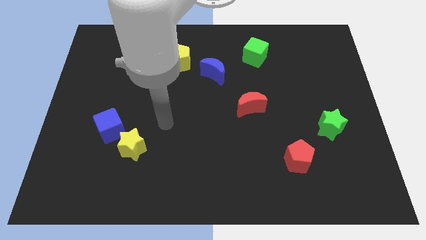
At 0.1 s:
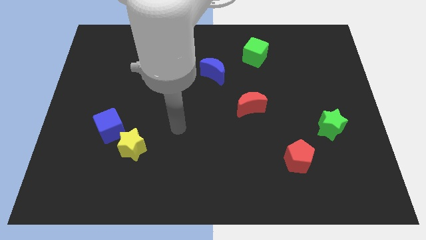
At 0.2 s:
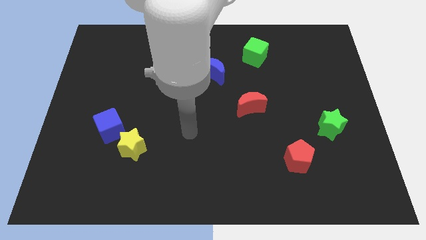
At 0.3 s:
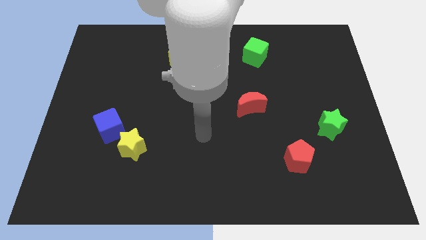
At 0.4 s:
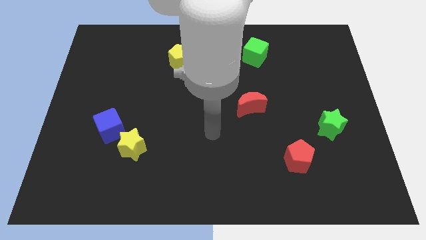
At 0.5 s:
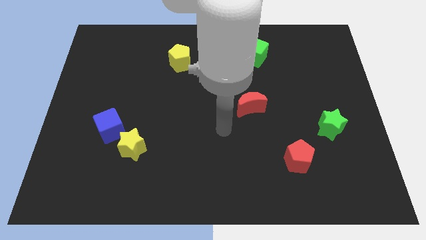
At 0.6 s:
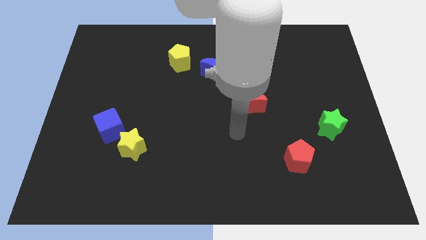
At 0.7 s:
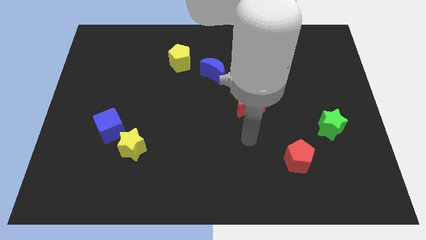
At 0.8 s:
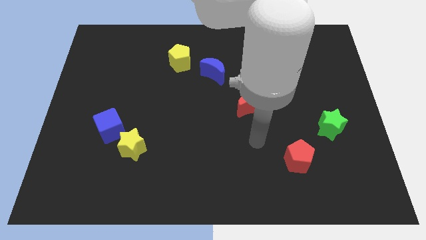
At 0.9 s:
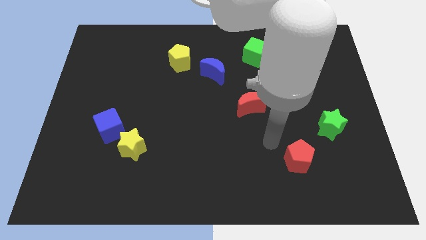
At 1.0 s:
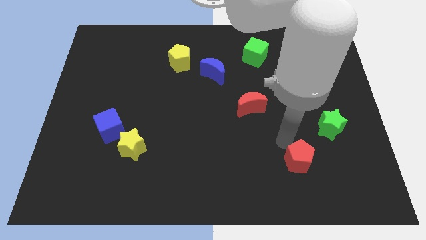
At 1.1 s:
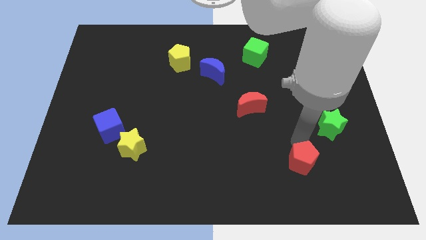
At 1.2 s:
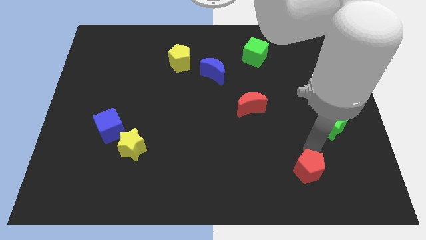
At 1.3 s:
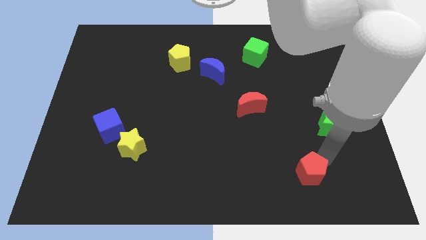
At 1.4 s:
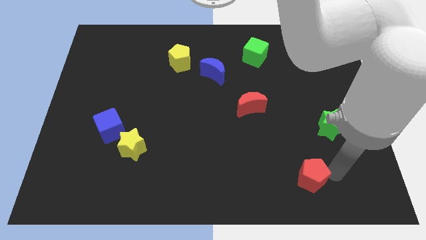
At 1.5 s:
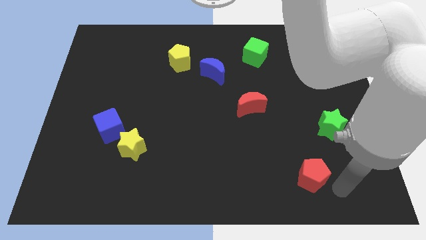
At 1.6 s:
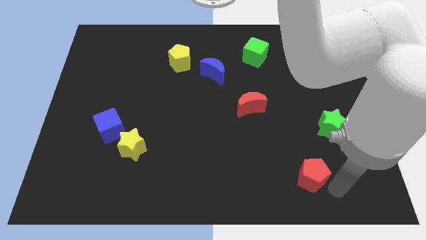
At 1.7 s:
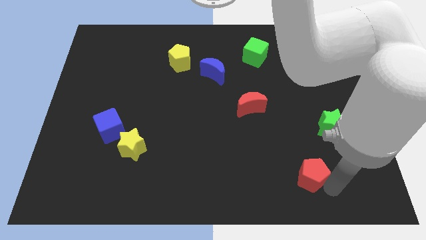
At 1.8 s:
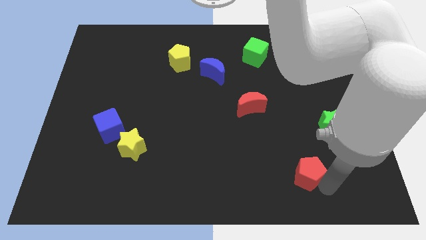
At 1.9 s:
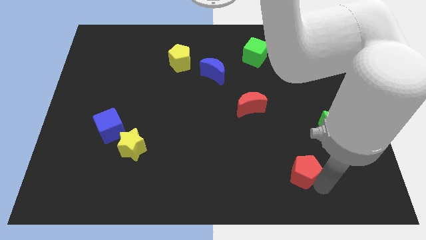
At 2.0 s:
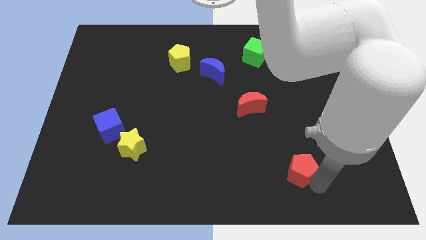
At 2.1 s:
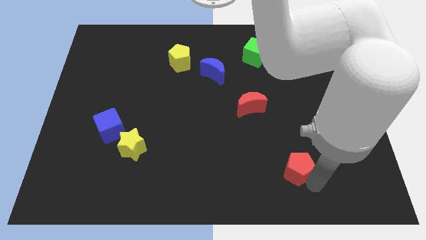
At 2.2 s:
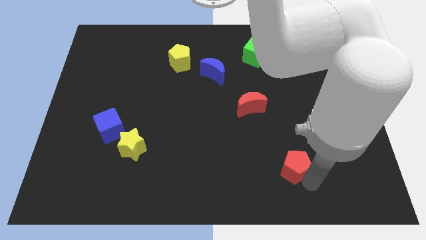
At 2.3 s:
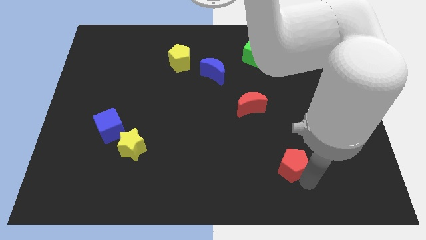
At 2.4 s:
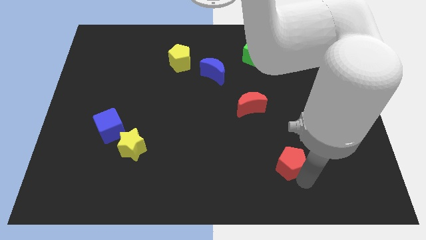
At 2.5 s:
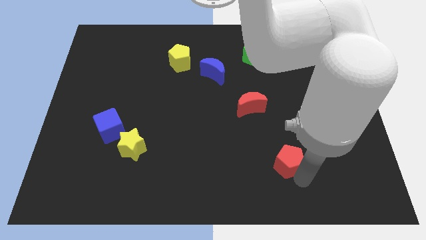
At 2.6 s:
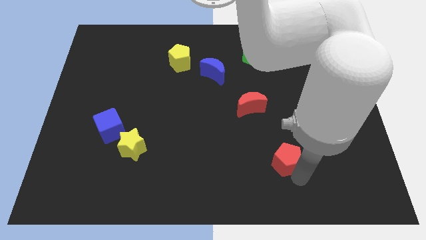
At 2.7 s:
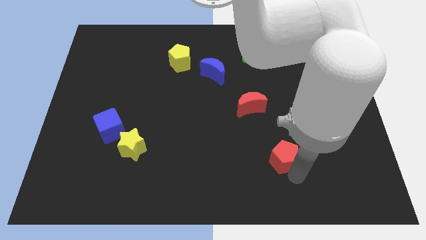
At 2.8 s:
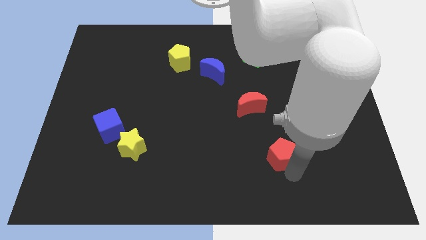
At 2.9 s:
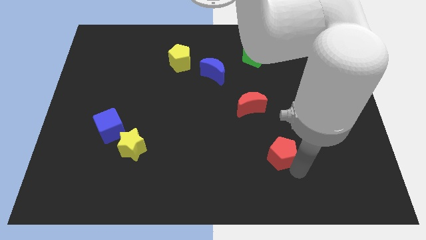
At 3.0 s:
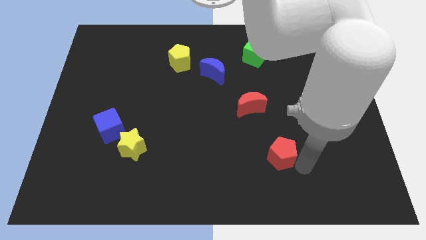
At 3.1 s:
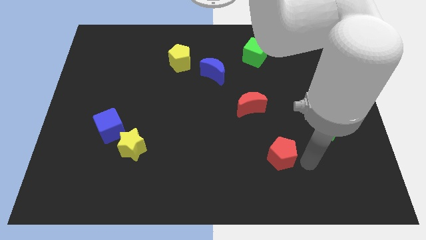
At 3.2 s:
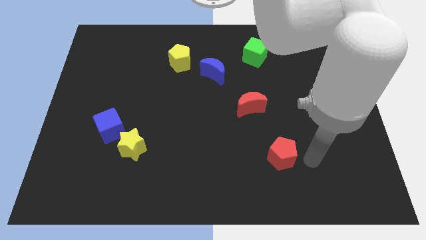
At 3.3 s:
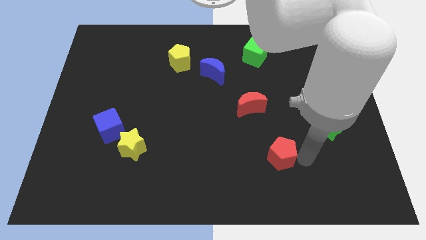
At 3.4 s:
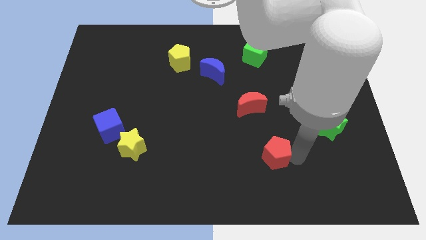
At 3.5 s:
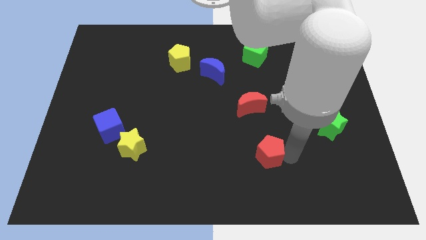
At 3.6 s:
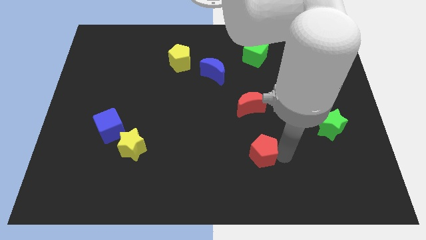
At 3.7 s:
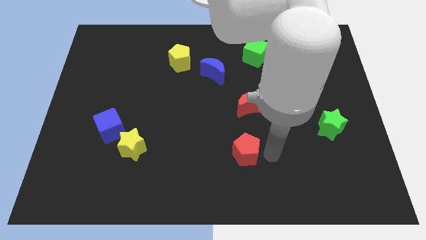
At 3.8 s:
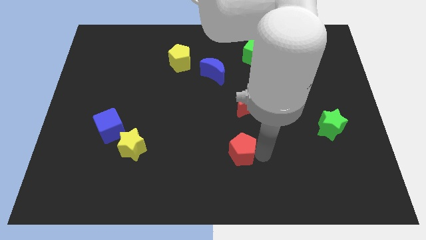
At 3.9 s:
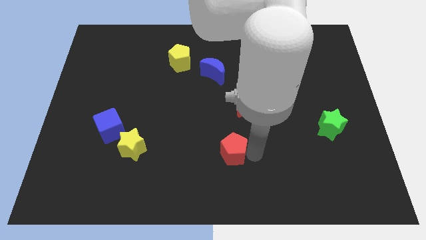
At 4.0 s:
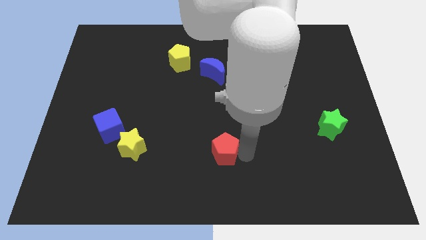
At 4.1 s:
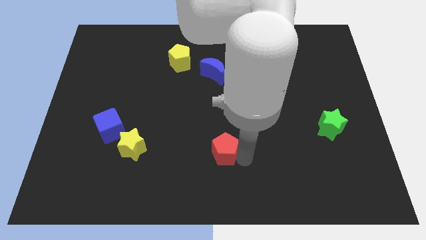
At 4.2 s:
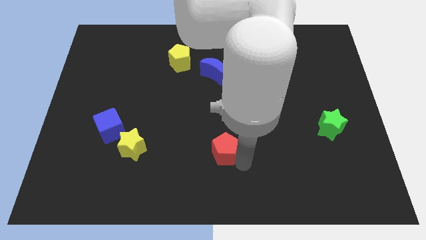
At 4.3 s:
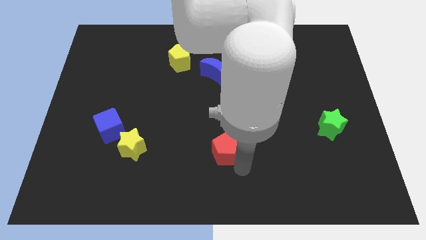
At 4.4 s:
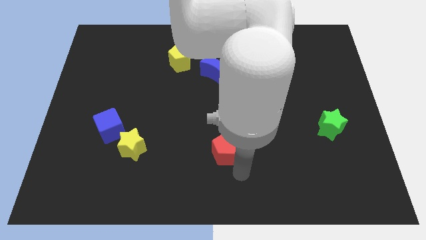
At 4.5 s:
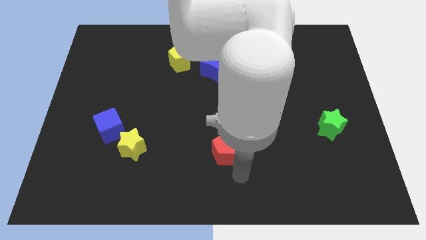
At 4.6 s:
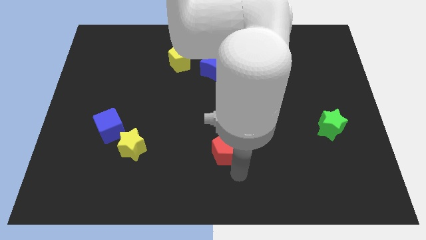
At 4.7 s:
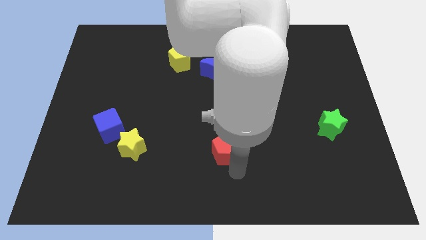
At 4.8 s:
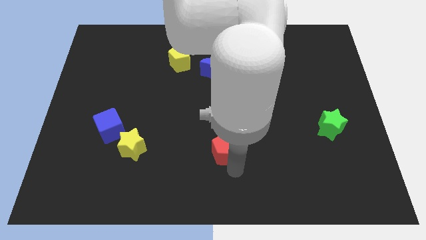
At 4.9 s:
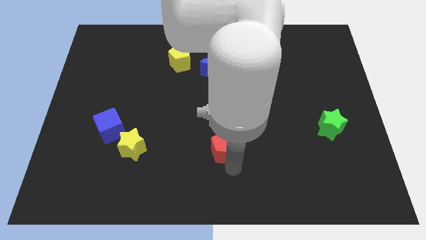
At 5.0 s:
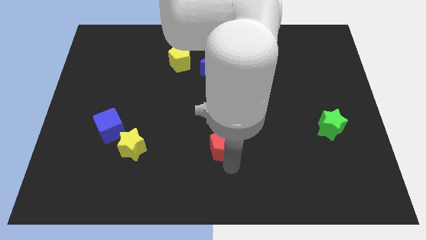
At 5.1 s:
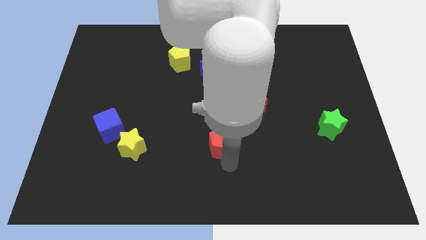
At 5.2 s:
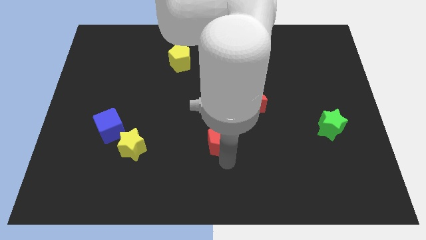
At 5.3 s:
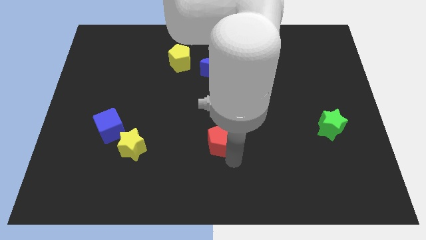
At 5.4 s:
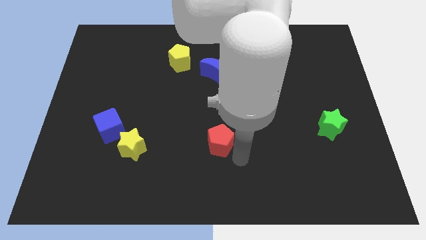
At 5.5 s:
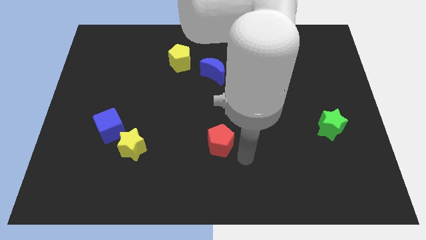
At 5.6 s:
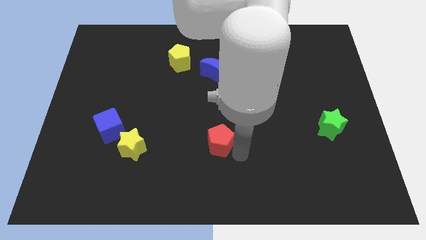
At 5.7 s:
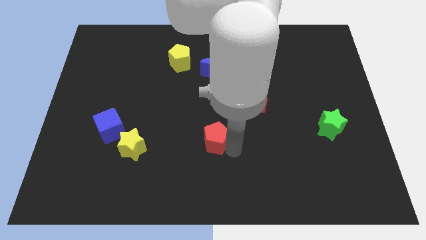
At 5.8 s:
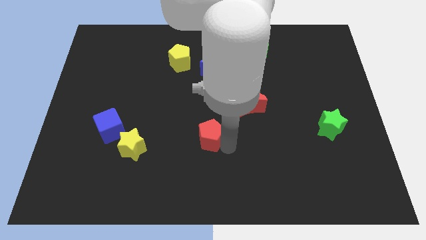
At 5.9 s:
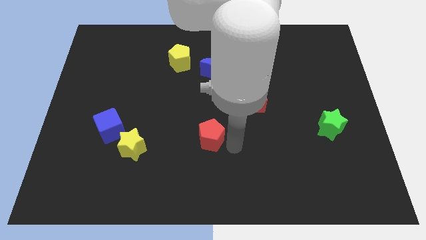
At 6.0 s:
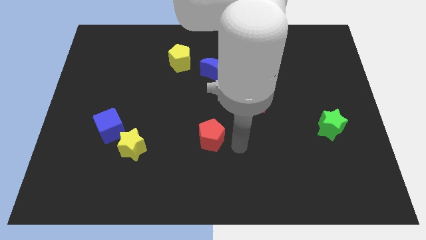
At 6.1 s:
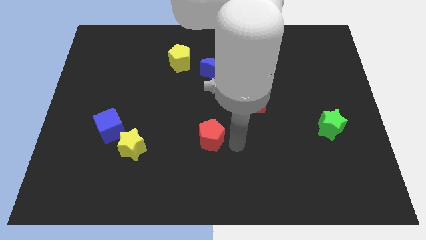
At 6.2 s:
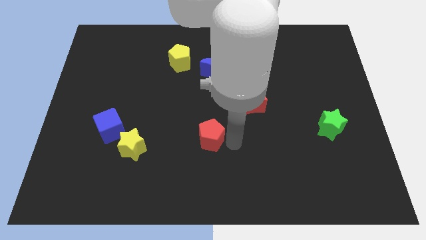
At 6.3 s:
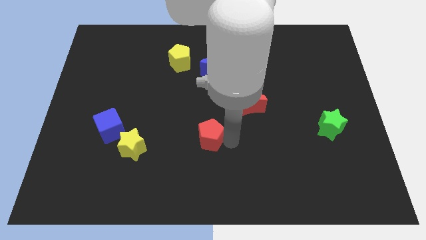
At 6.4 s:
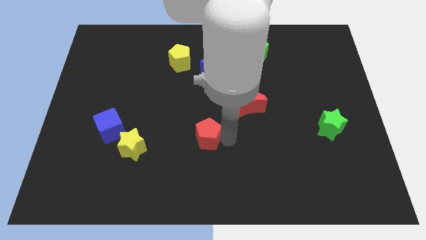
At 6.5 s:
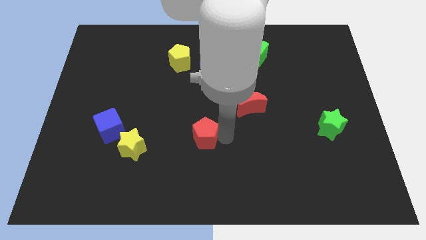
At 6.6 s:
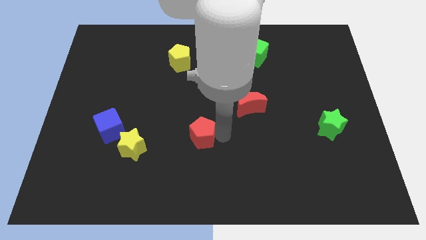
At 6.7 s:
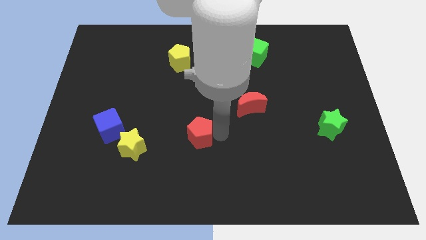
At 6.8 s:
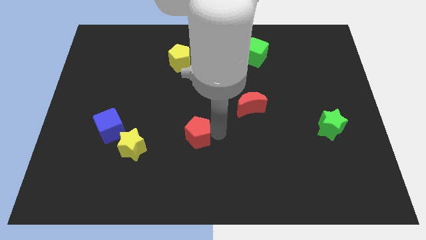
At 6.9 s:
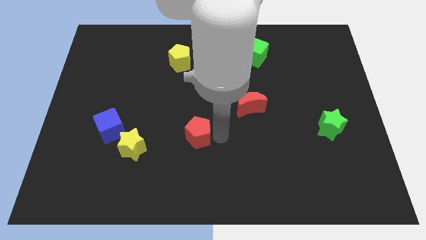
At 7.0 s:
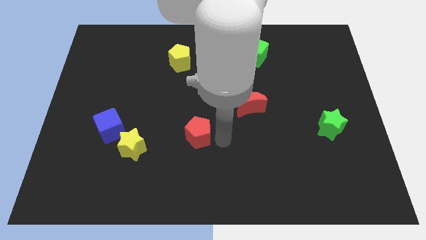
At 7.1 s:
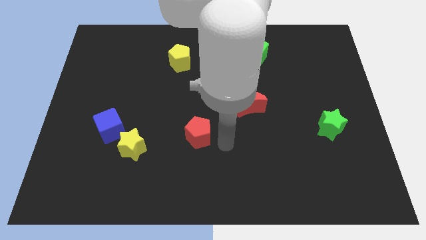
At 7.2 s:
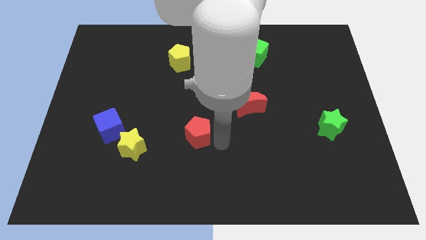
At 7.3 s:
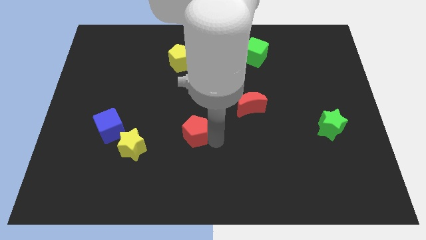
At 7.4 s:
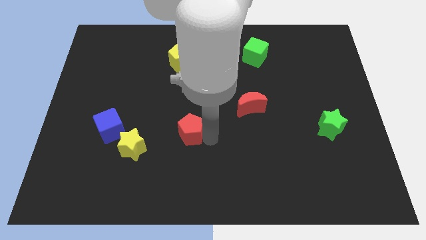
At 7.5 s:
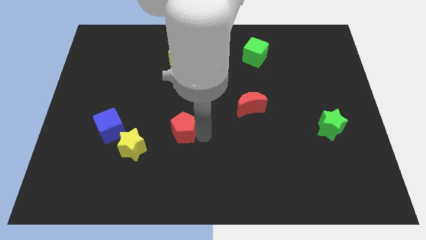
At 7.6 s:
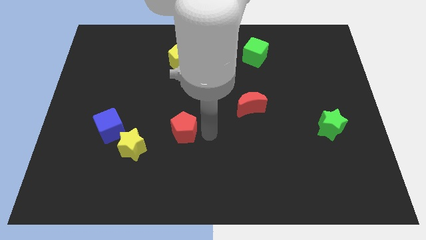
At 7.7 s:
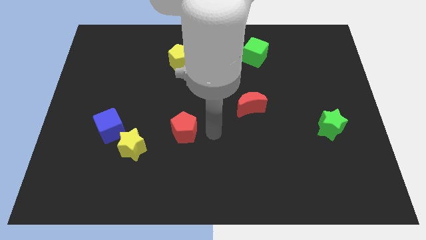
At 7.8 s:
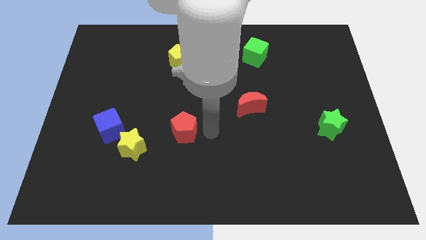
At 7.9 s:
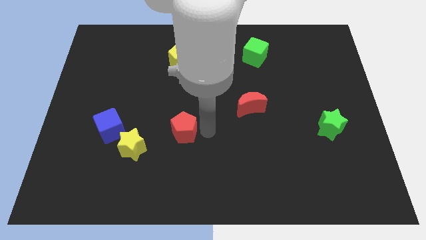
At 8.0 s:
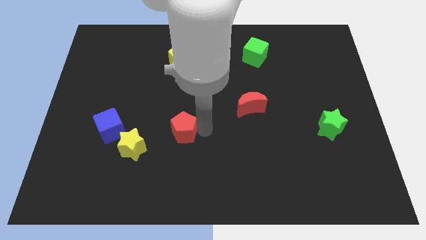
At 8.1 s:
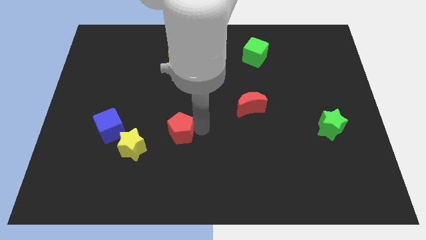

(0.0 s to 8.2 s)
slide the red pentagon to the top right side of the yellow star
